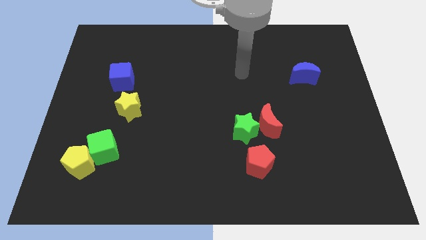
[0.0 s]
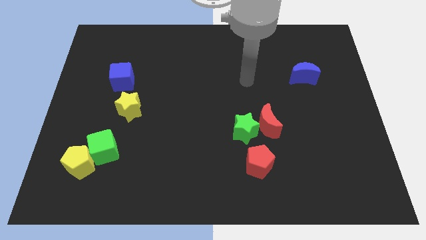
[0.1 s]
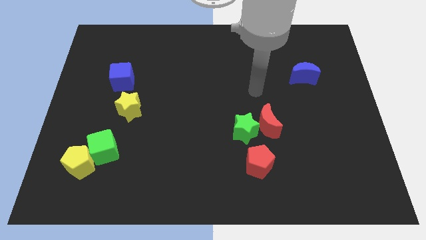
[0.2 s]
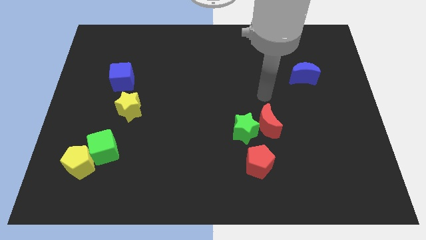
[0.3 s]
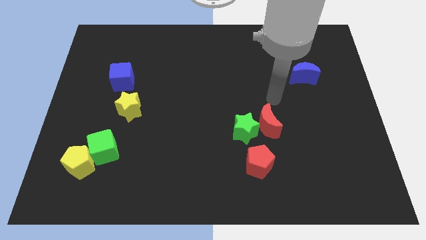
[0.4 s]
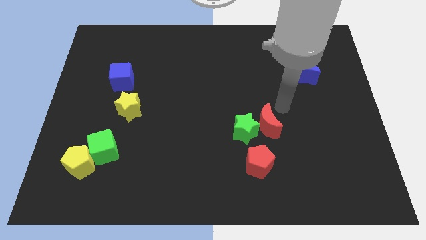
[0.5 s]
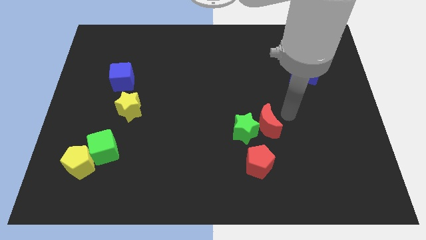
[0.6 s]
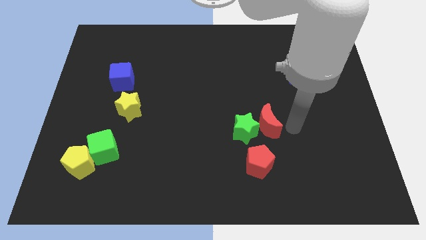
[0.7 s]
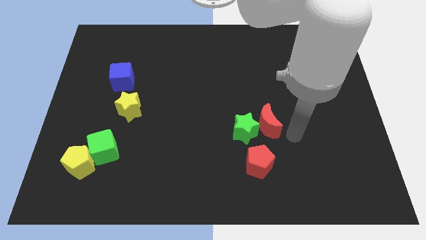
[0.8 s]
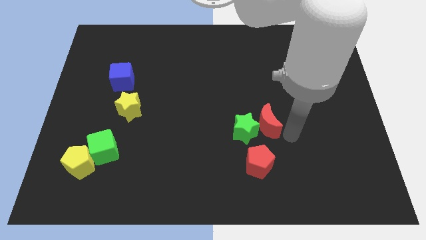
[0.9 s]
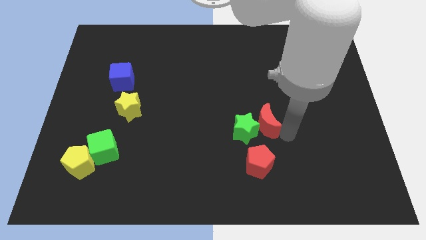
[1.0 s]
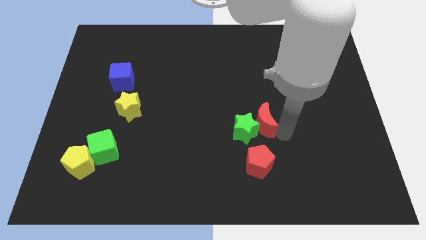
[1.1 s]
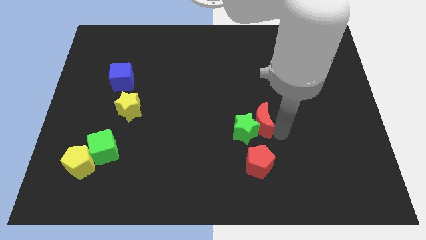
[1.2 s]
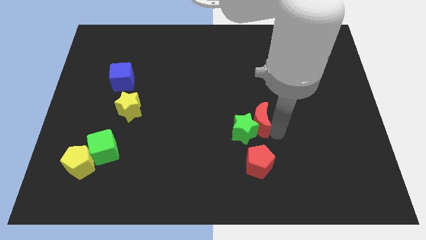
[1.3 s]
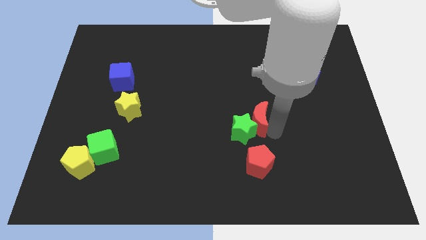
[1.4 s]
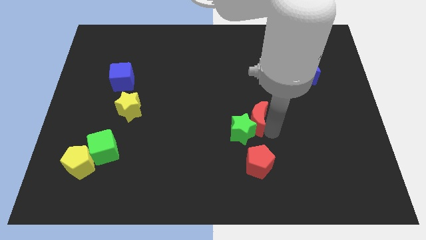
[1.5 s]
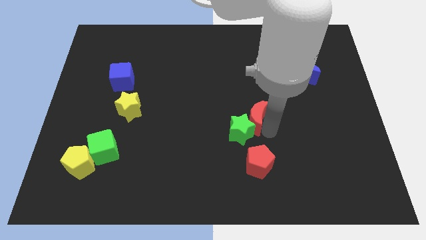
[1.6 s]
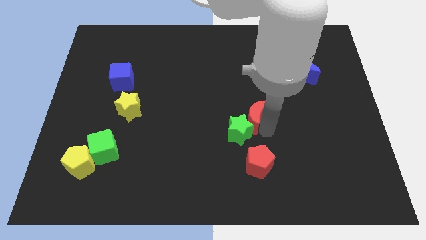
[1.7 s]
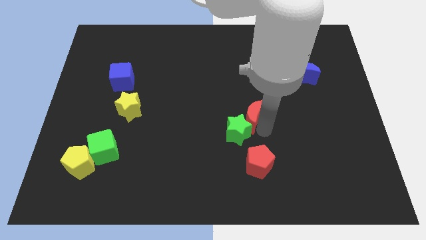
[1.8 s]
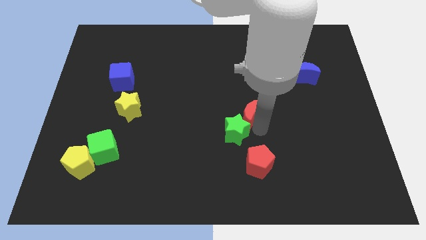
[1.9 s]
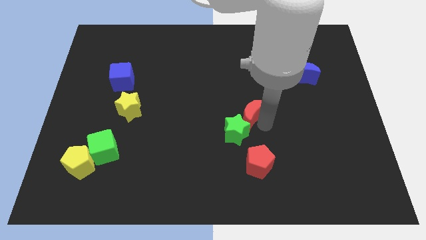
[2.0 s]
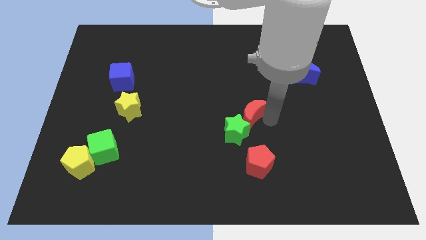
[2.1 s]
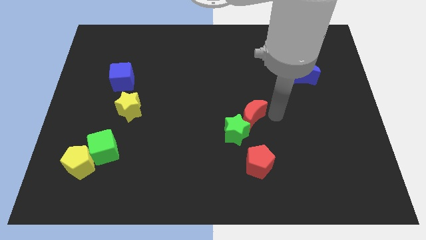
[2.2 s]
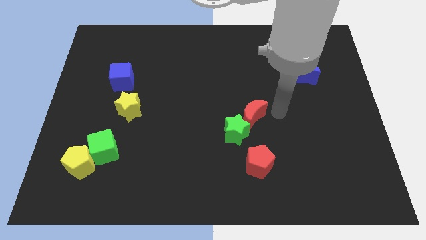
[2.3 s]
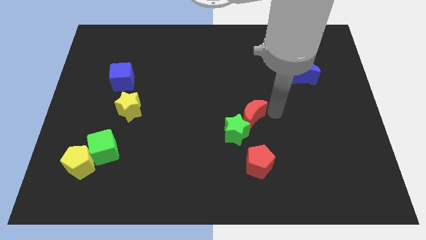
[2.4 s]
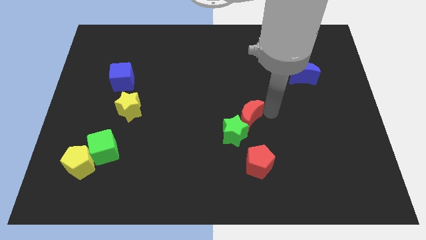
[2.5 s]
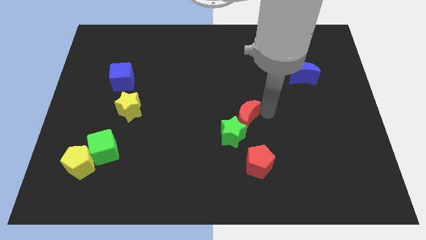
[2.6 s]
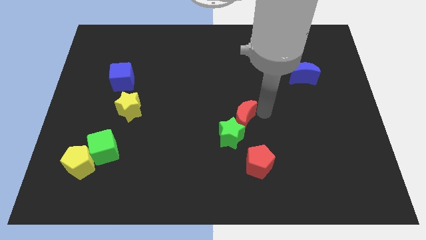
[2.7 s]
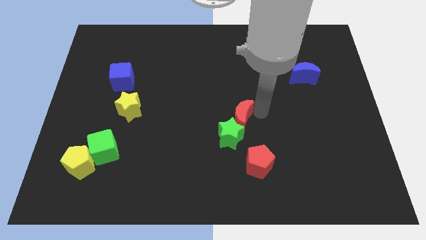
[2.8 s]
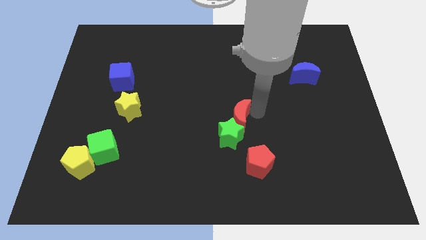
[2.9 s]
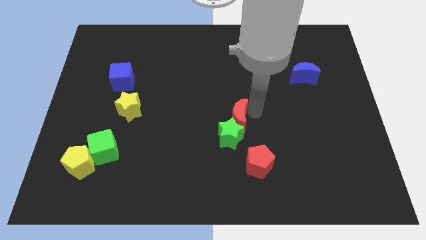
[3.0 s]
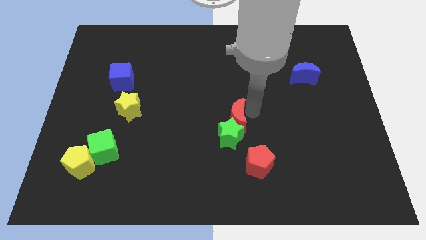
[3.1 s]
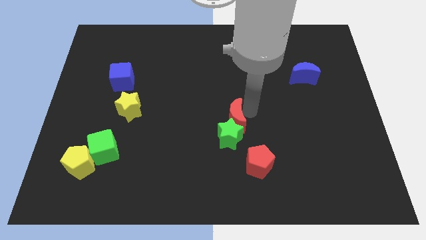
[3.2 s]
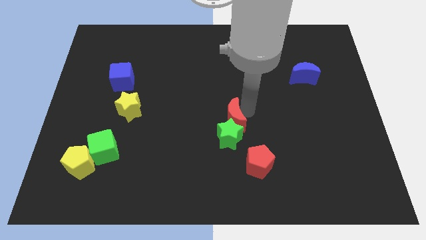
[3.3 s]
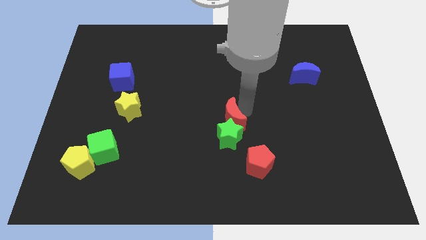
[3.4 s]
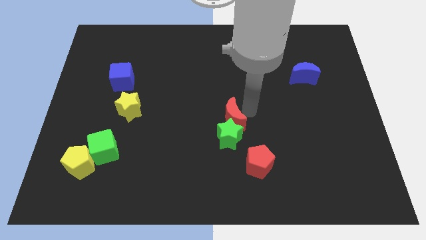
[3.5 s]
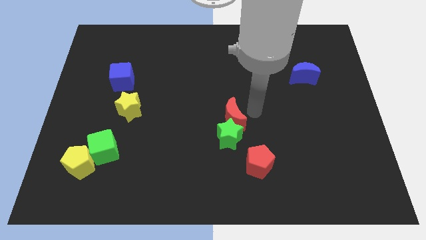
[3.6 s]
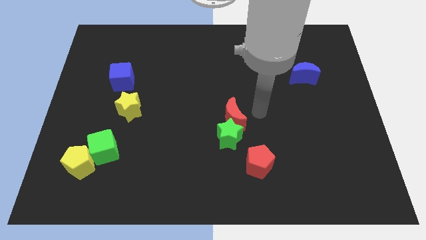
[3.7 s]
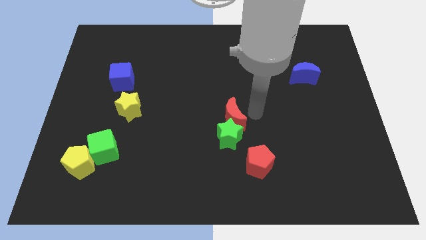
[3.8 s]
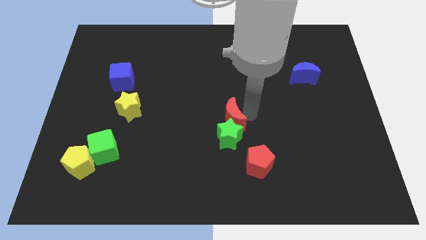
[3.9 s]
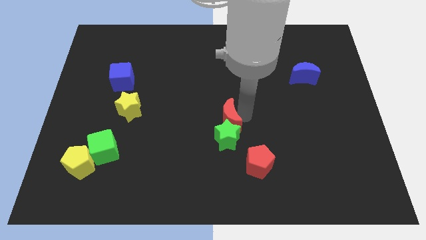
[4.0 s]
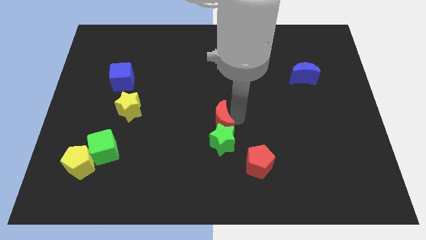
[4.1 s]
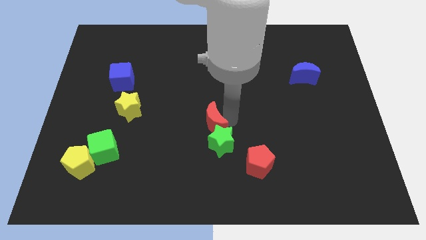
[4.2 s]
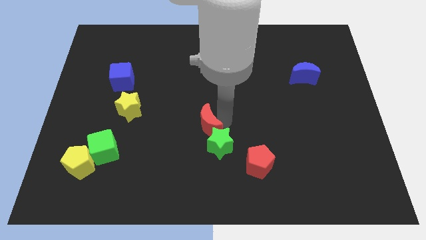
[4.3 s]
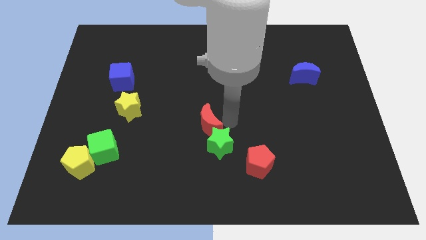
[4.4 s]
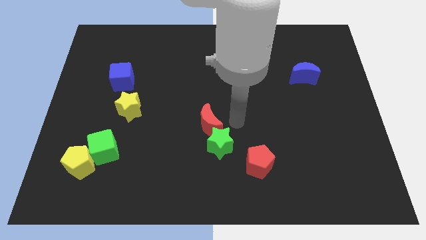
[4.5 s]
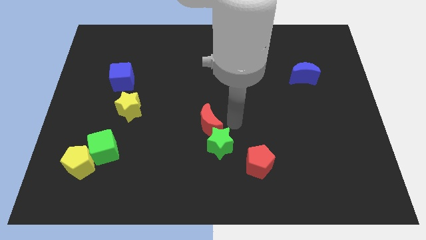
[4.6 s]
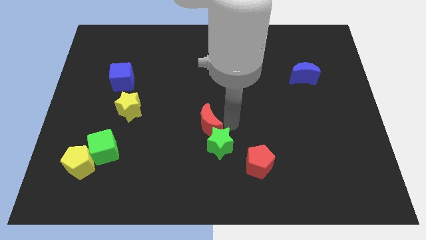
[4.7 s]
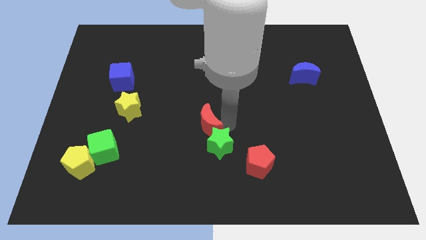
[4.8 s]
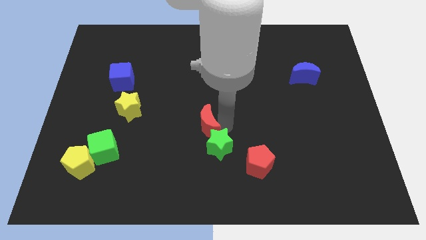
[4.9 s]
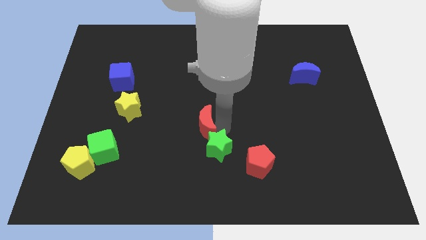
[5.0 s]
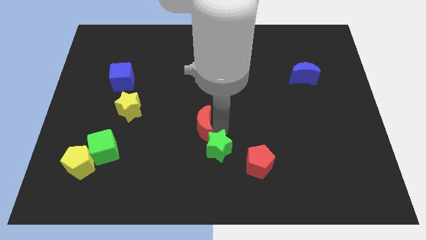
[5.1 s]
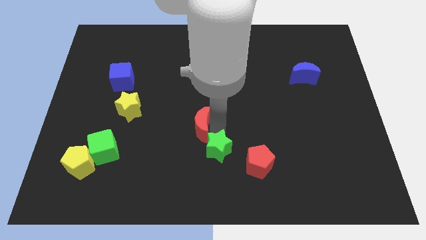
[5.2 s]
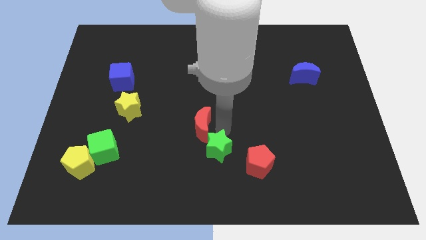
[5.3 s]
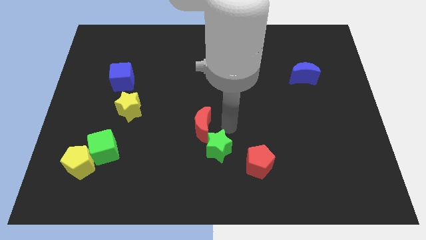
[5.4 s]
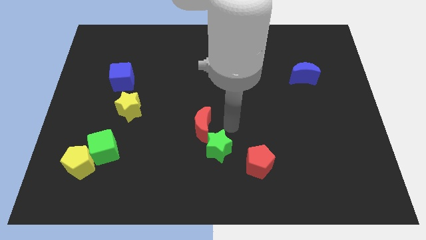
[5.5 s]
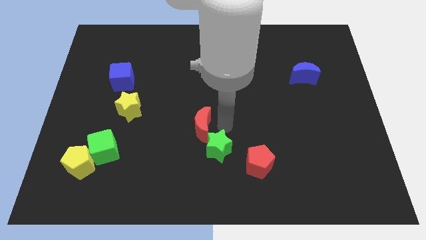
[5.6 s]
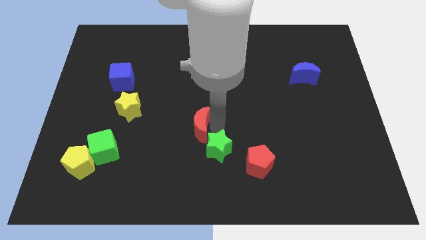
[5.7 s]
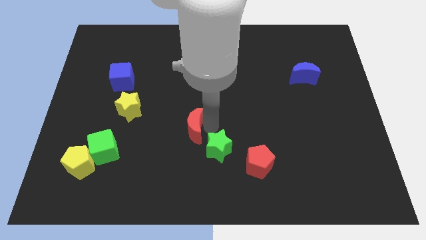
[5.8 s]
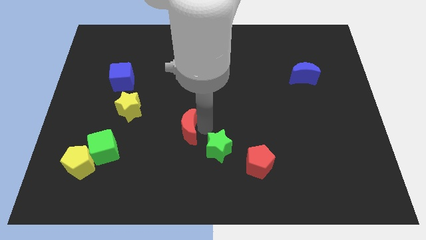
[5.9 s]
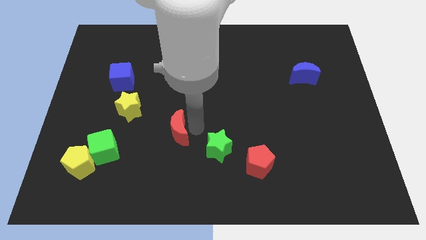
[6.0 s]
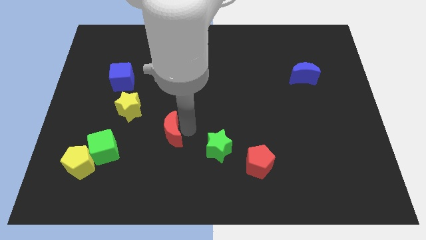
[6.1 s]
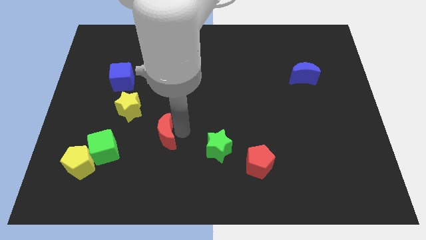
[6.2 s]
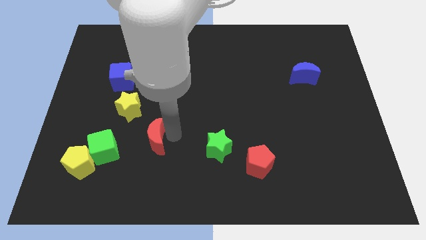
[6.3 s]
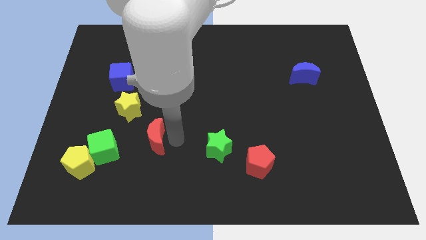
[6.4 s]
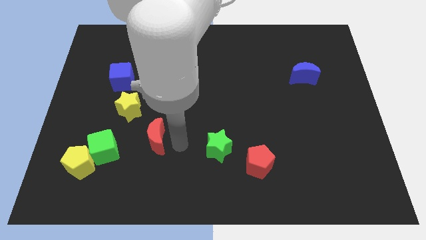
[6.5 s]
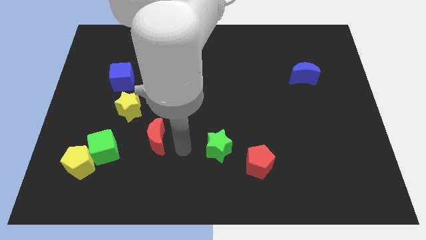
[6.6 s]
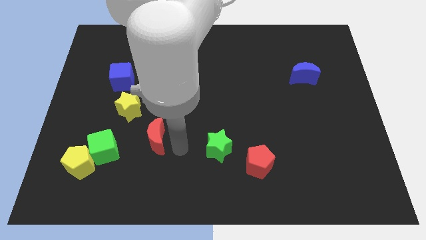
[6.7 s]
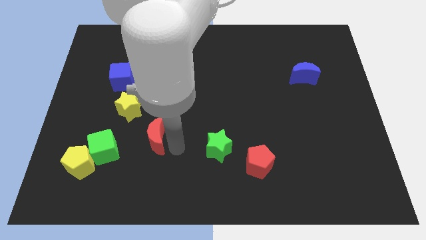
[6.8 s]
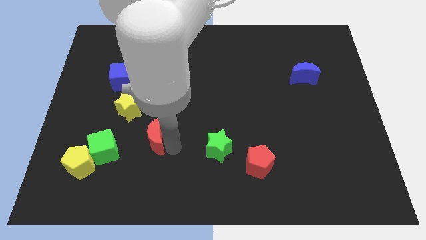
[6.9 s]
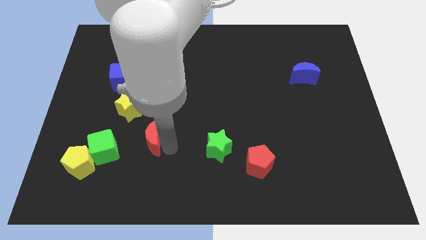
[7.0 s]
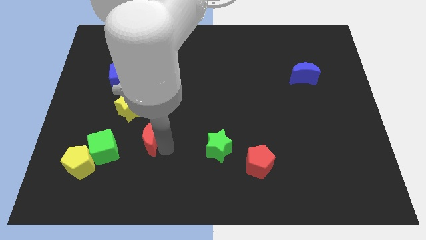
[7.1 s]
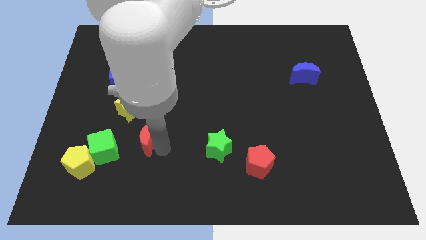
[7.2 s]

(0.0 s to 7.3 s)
push the red moon to the top right side of the green cube
